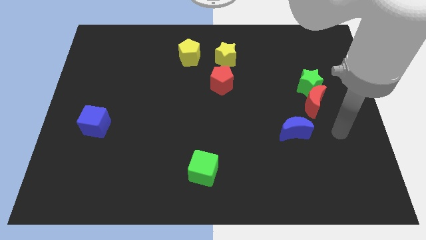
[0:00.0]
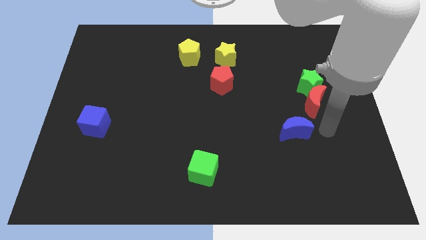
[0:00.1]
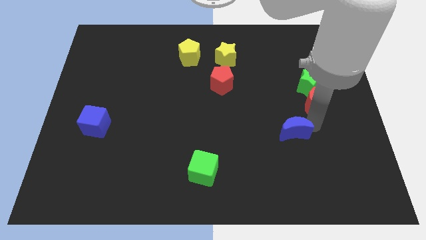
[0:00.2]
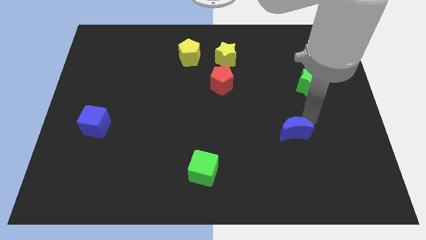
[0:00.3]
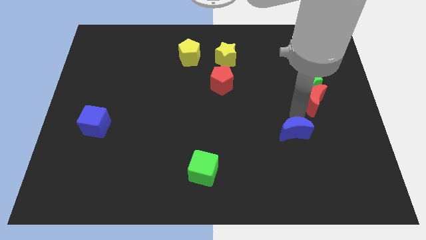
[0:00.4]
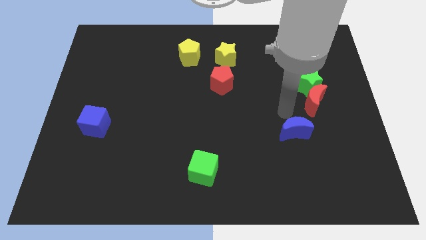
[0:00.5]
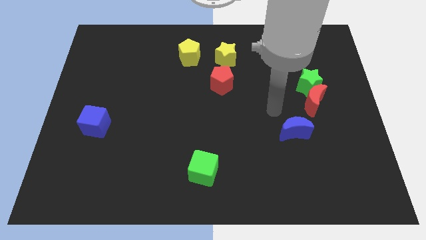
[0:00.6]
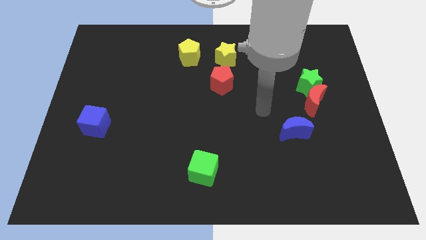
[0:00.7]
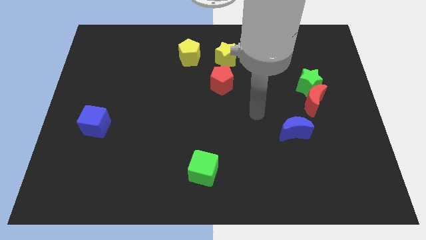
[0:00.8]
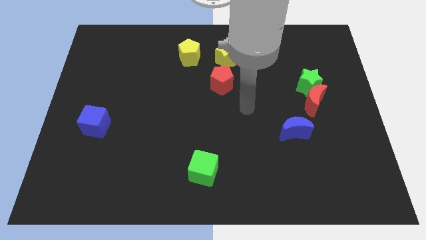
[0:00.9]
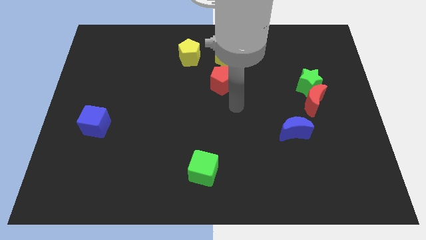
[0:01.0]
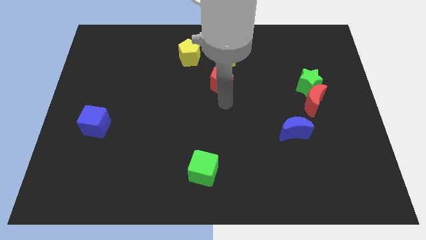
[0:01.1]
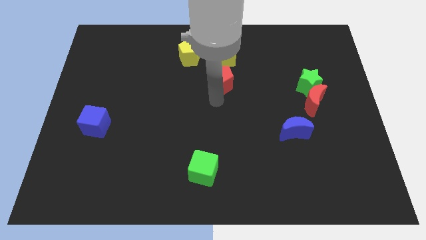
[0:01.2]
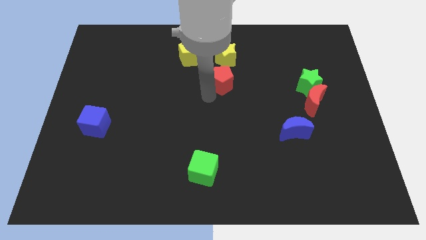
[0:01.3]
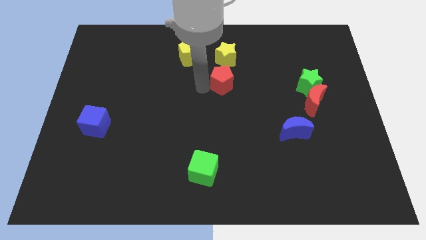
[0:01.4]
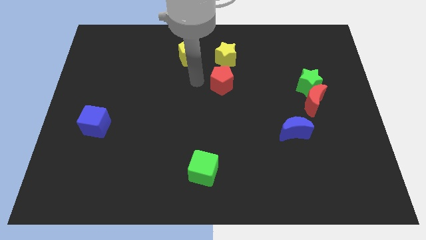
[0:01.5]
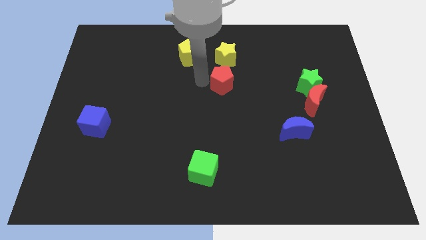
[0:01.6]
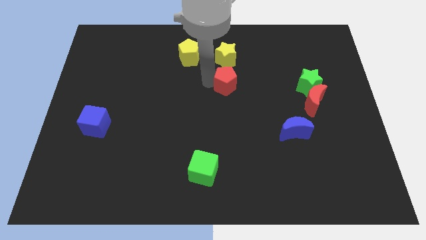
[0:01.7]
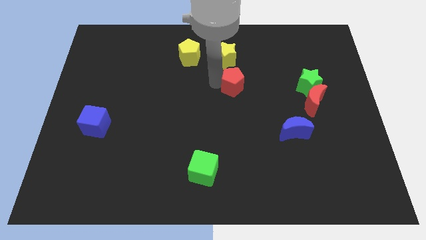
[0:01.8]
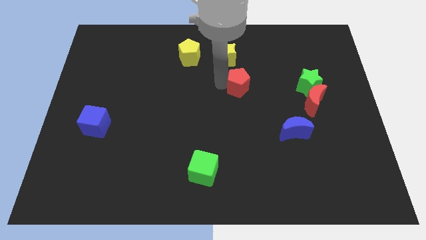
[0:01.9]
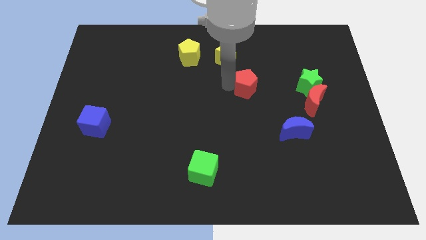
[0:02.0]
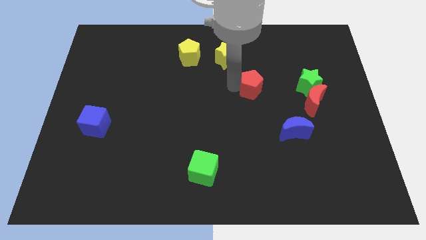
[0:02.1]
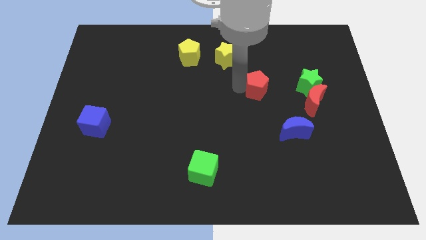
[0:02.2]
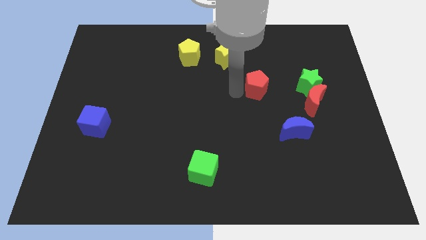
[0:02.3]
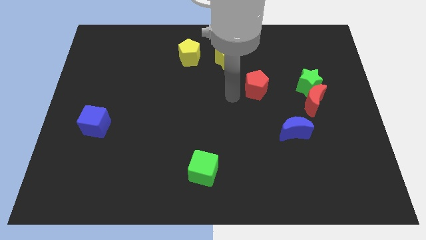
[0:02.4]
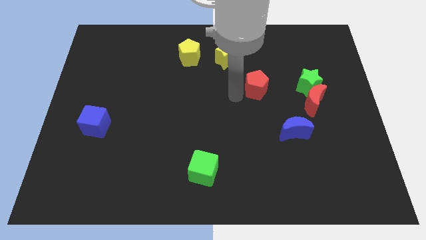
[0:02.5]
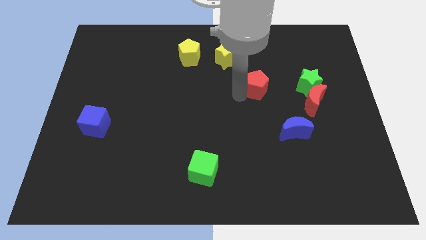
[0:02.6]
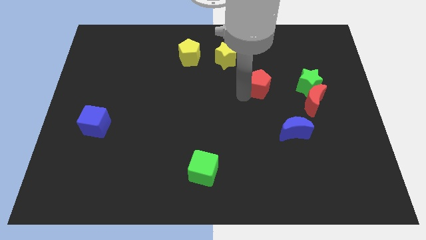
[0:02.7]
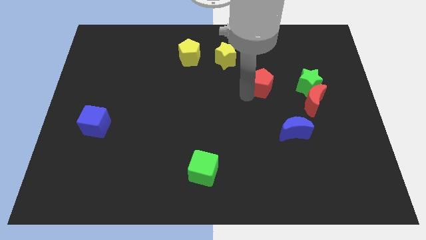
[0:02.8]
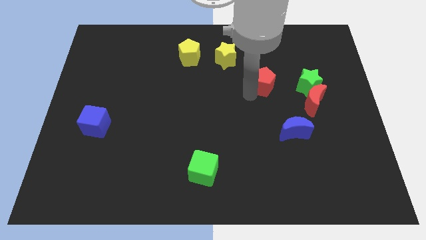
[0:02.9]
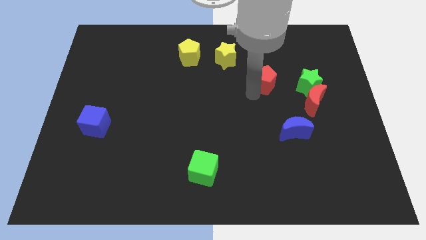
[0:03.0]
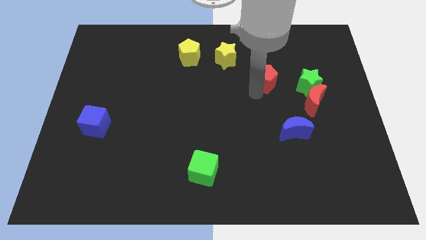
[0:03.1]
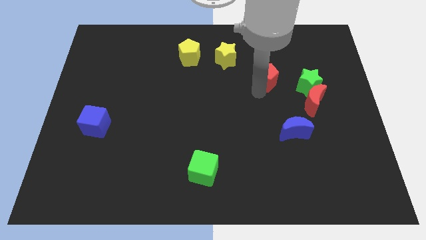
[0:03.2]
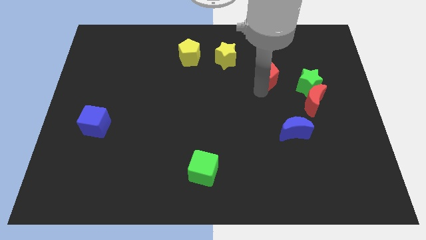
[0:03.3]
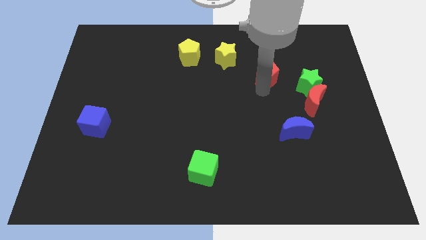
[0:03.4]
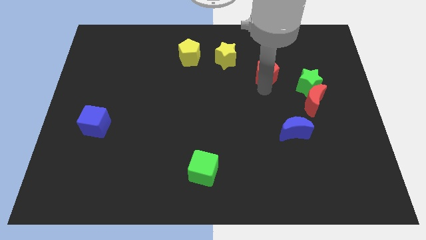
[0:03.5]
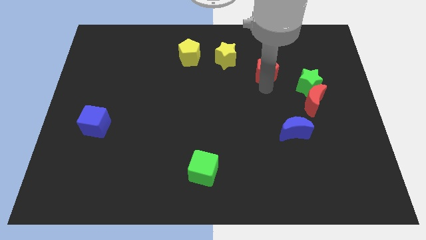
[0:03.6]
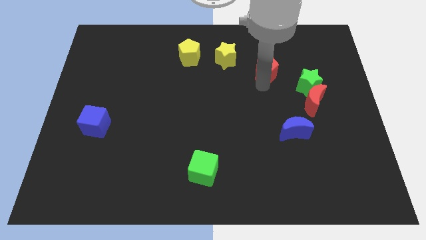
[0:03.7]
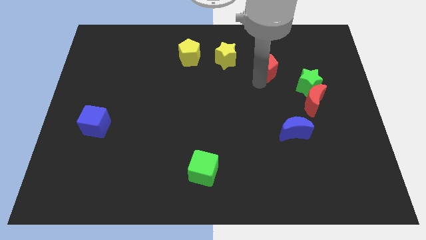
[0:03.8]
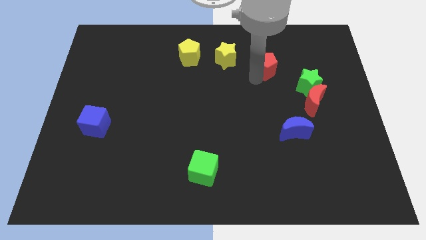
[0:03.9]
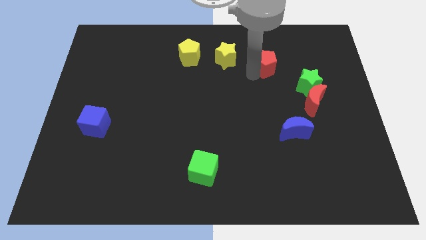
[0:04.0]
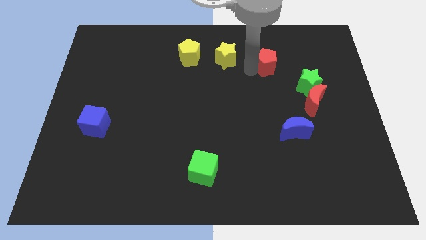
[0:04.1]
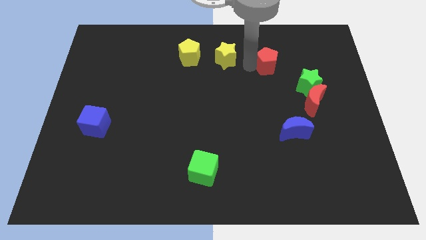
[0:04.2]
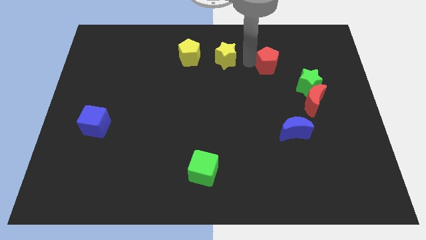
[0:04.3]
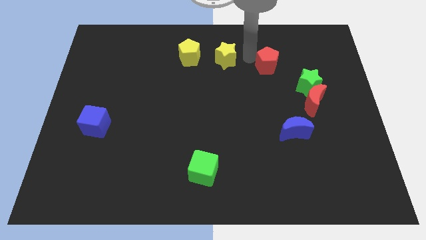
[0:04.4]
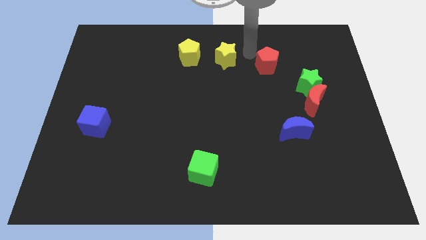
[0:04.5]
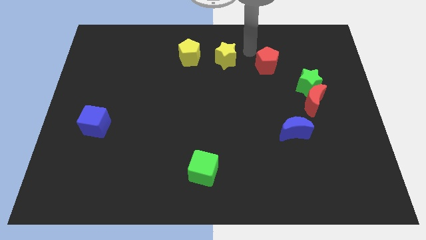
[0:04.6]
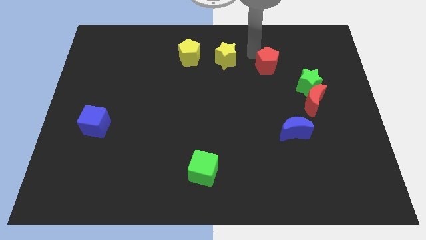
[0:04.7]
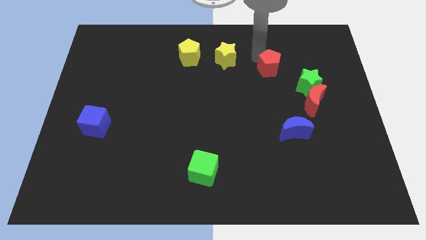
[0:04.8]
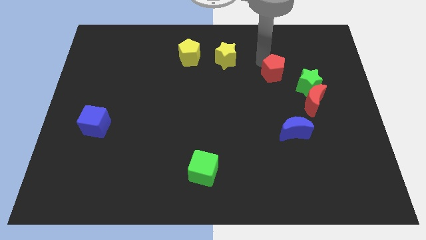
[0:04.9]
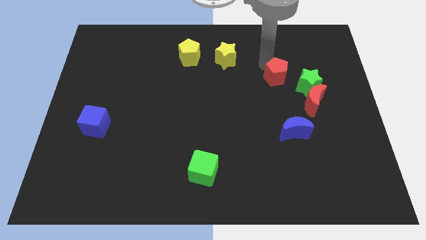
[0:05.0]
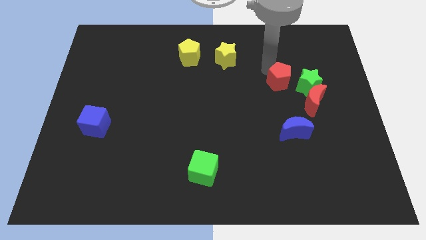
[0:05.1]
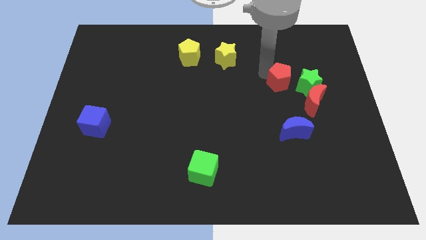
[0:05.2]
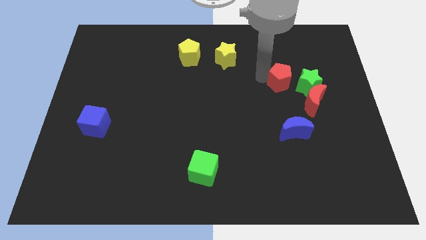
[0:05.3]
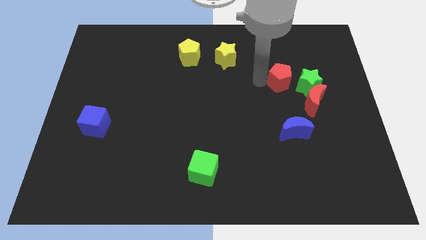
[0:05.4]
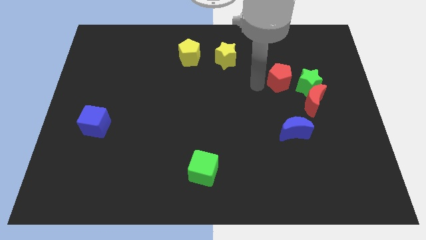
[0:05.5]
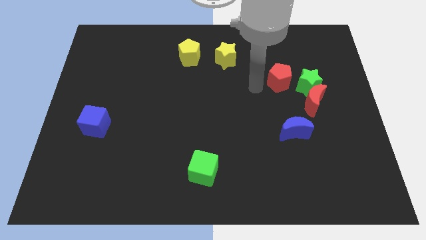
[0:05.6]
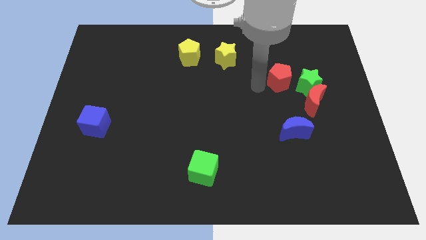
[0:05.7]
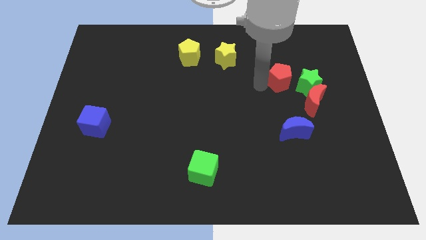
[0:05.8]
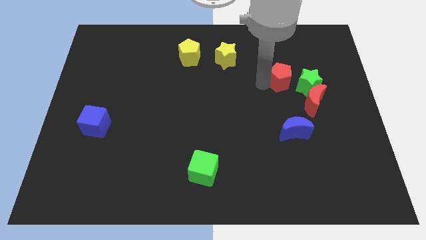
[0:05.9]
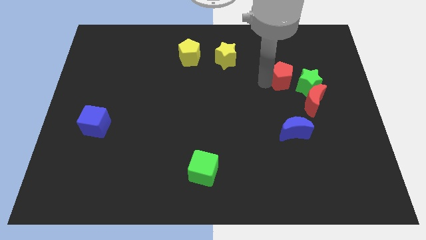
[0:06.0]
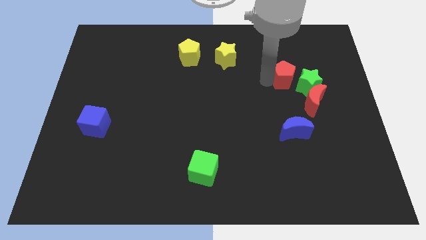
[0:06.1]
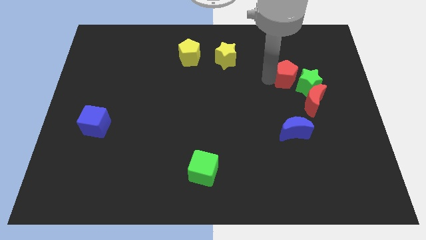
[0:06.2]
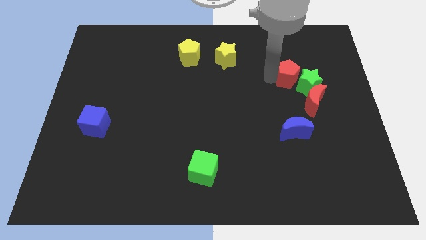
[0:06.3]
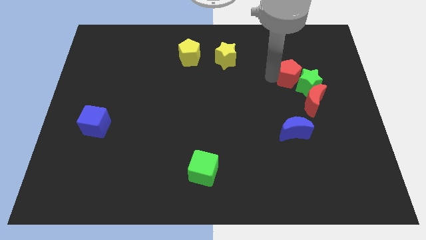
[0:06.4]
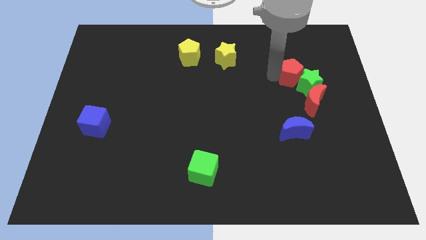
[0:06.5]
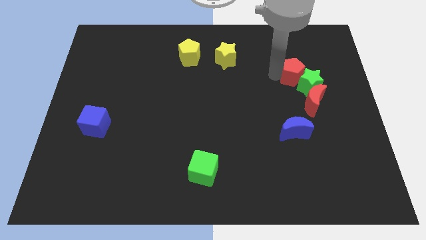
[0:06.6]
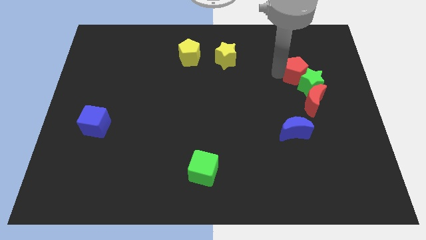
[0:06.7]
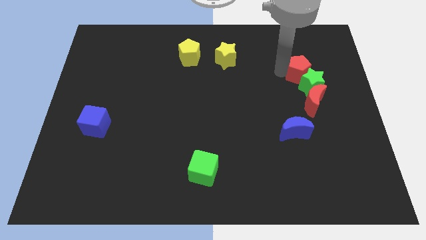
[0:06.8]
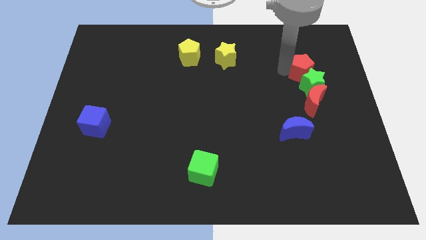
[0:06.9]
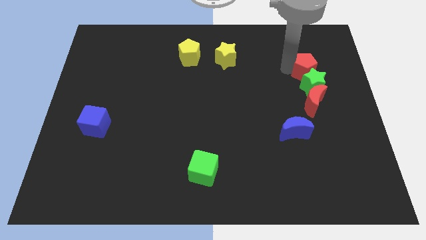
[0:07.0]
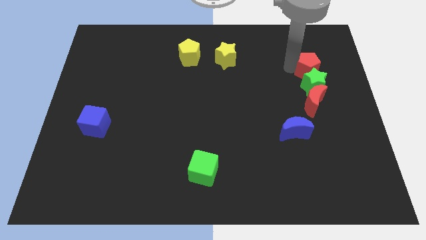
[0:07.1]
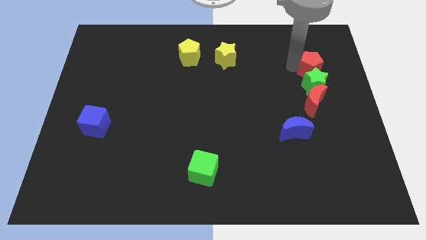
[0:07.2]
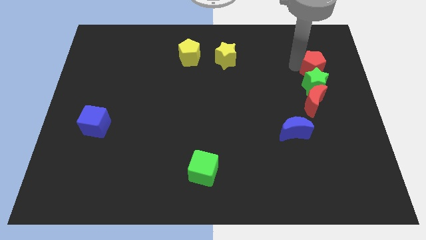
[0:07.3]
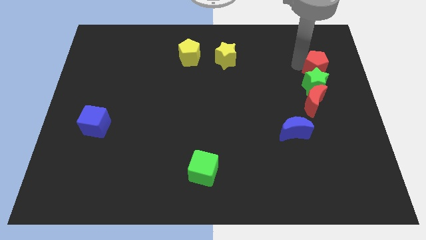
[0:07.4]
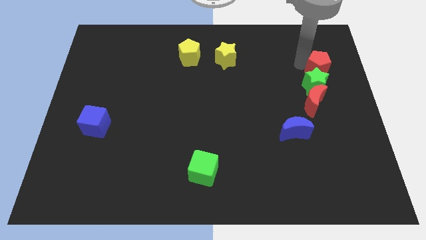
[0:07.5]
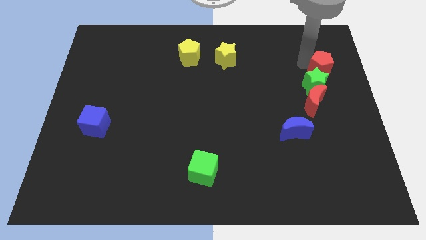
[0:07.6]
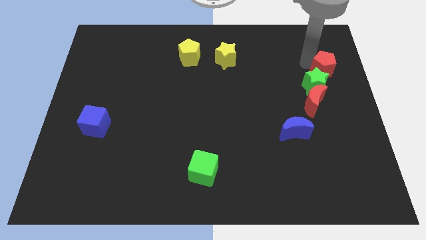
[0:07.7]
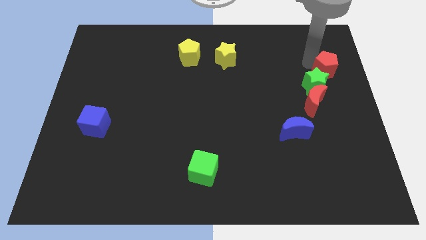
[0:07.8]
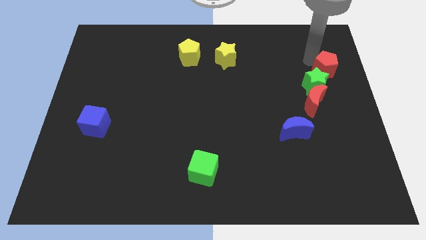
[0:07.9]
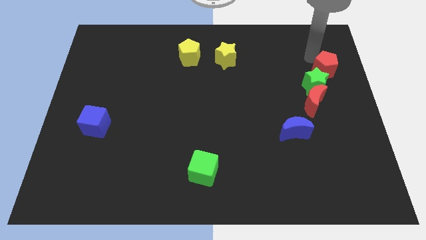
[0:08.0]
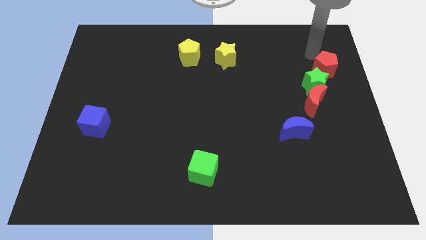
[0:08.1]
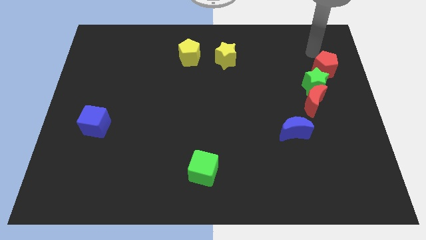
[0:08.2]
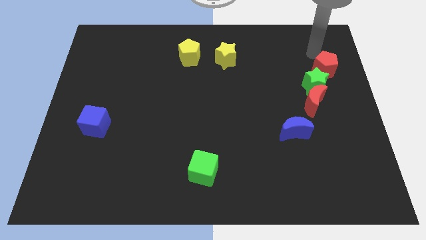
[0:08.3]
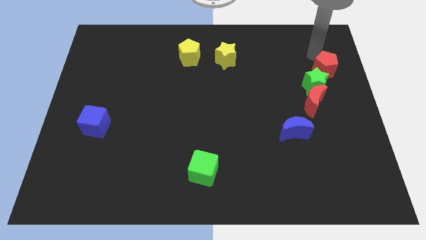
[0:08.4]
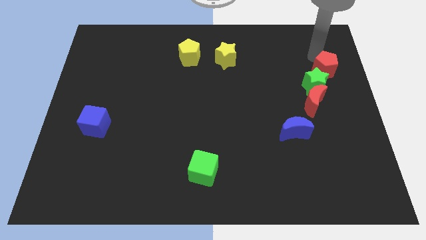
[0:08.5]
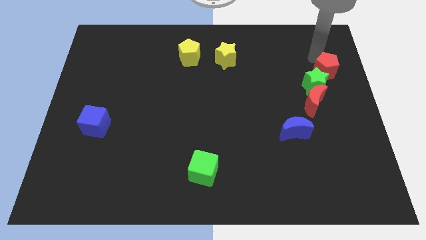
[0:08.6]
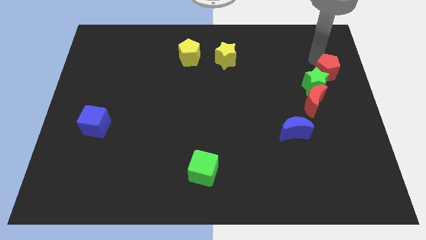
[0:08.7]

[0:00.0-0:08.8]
move the red pentagon to the right side of the board
